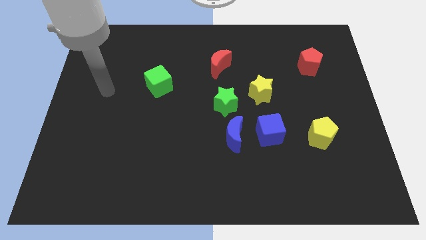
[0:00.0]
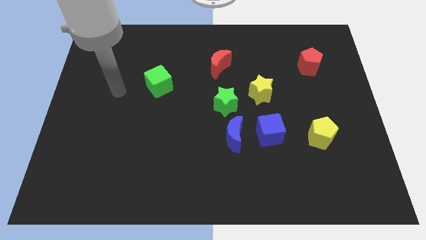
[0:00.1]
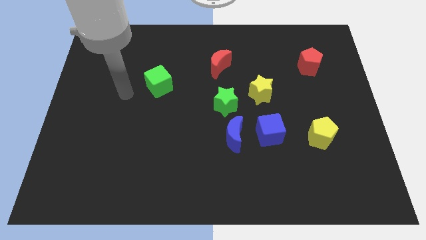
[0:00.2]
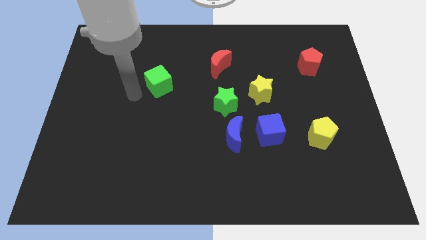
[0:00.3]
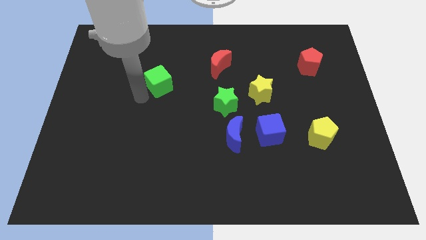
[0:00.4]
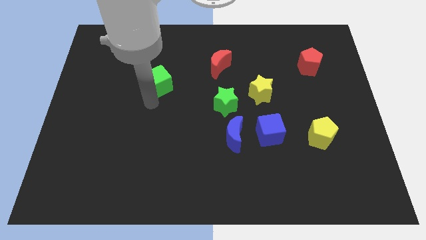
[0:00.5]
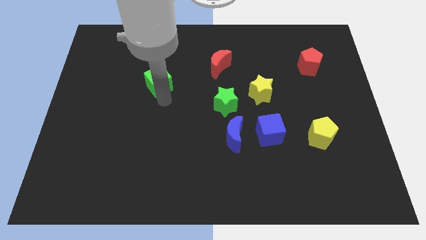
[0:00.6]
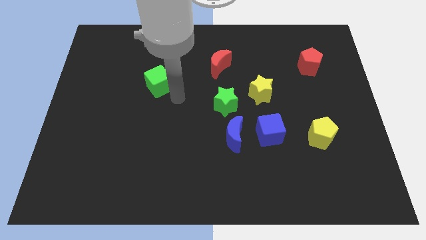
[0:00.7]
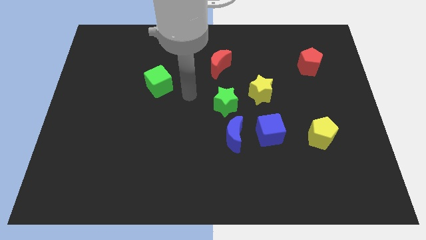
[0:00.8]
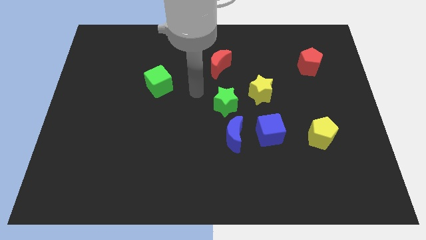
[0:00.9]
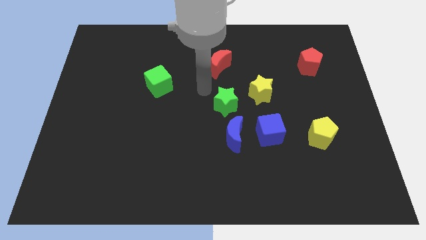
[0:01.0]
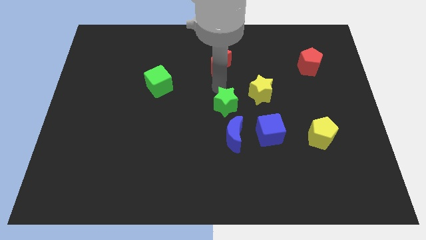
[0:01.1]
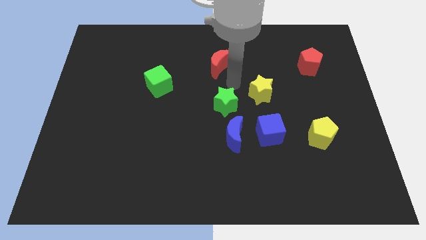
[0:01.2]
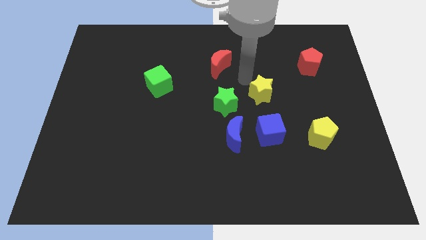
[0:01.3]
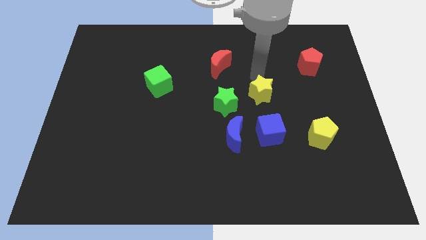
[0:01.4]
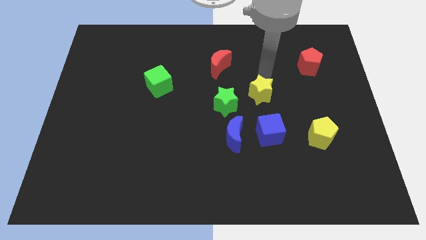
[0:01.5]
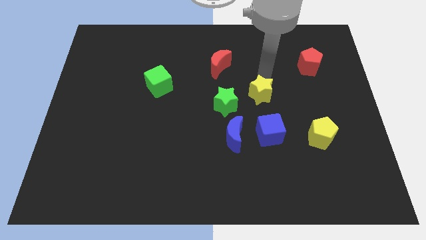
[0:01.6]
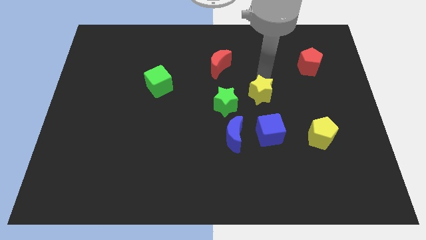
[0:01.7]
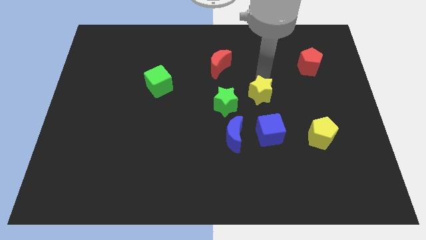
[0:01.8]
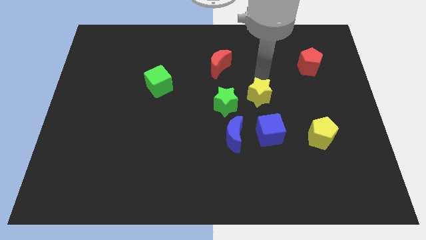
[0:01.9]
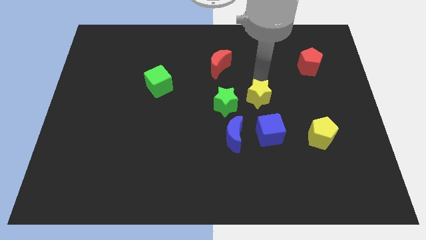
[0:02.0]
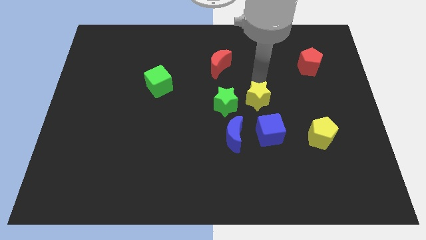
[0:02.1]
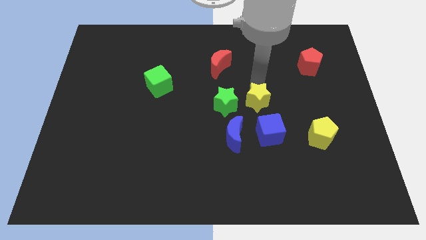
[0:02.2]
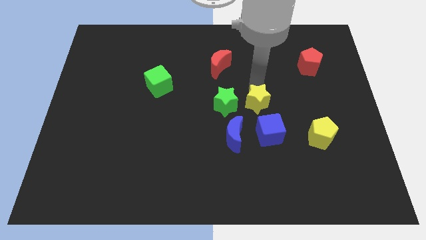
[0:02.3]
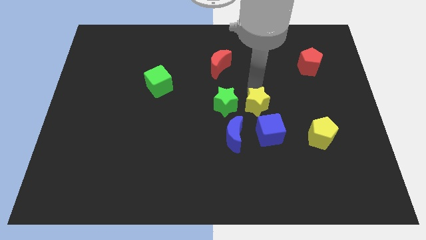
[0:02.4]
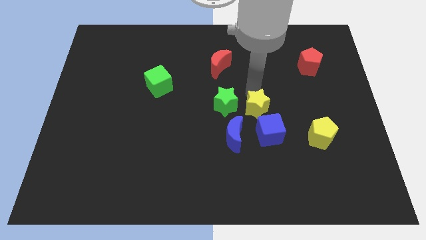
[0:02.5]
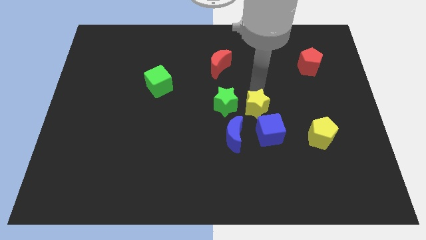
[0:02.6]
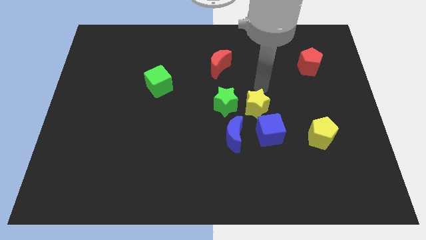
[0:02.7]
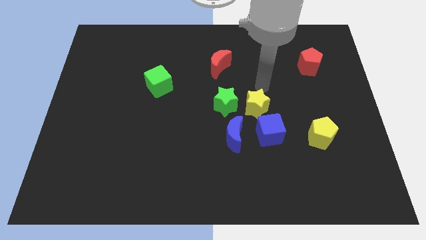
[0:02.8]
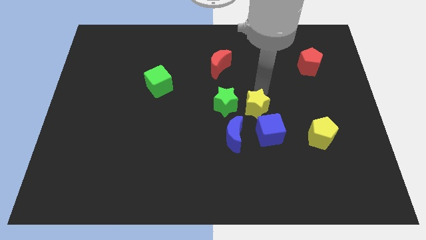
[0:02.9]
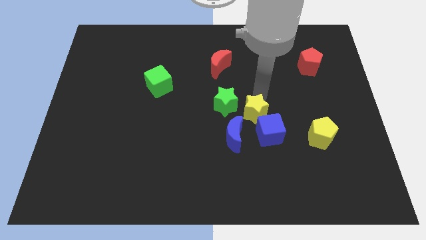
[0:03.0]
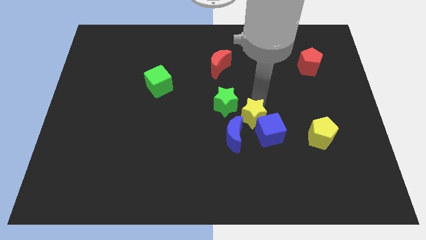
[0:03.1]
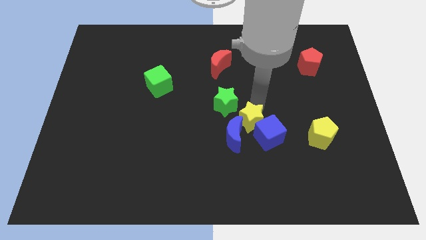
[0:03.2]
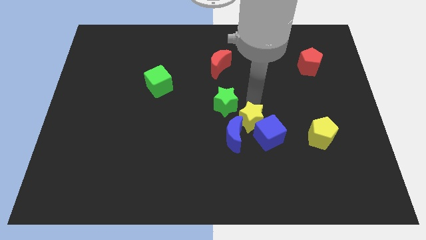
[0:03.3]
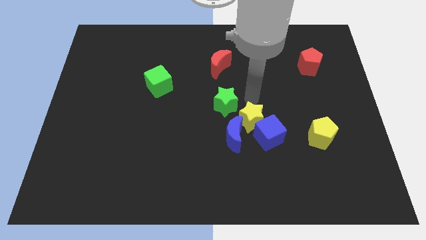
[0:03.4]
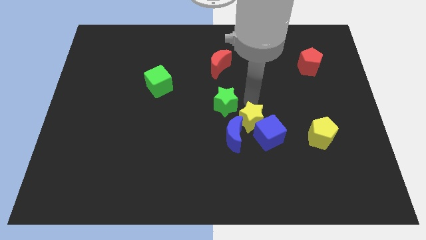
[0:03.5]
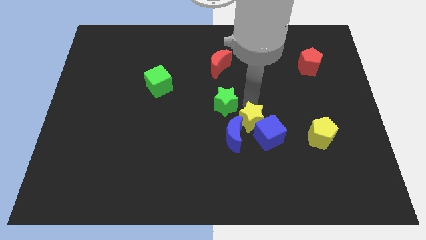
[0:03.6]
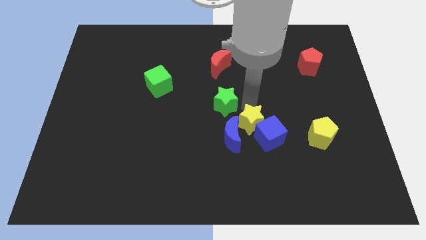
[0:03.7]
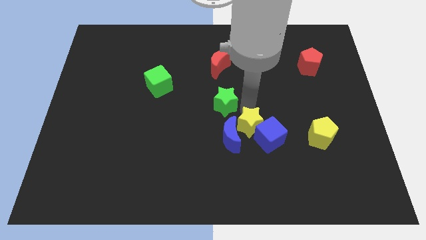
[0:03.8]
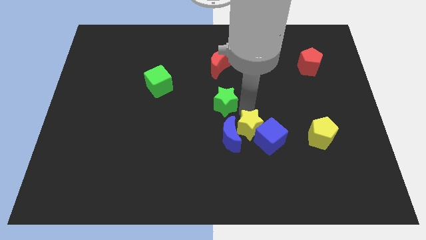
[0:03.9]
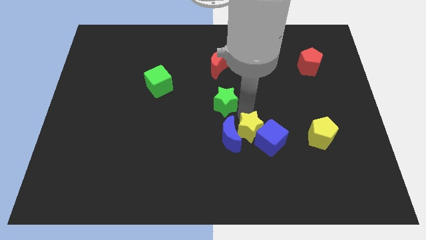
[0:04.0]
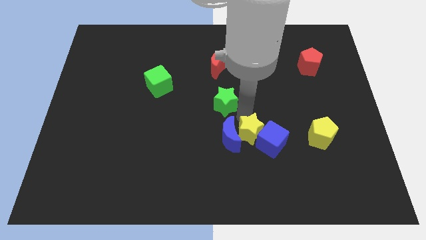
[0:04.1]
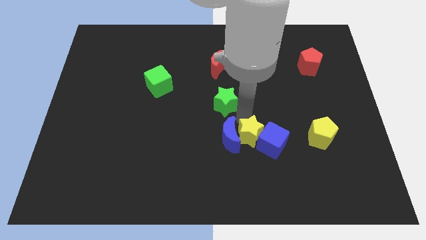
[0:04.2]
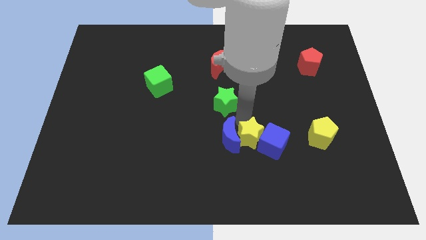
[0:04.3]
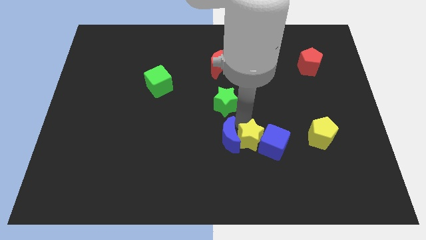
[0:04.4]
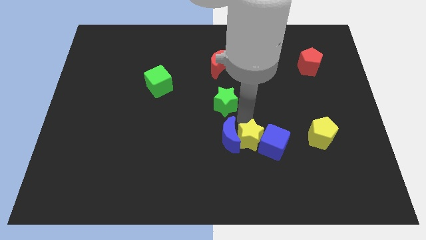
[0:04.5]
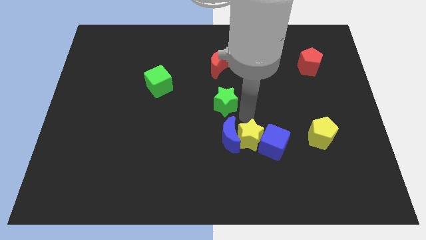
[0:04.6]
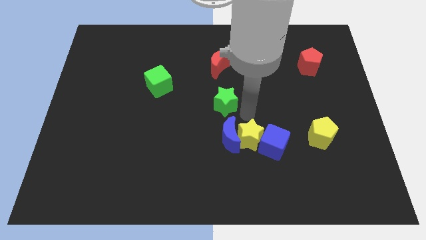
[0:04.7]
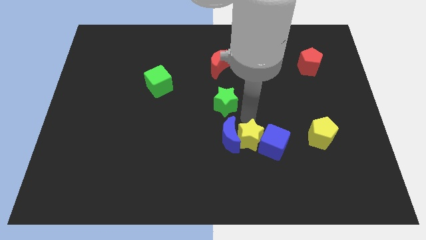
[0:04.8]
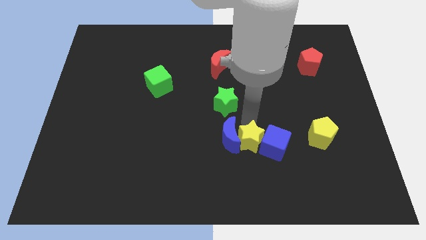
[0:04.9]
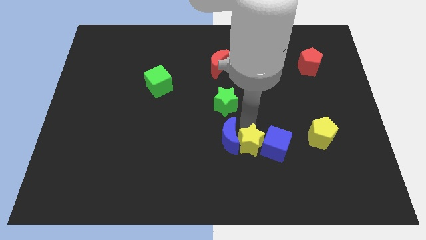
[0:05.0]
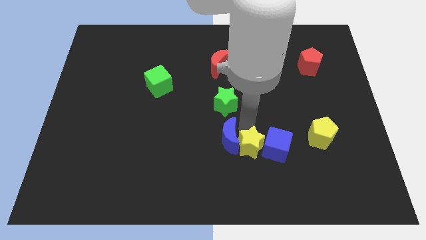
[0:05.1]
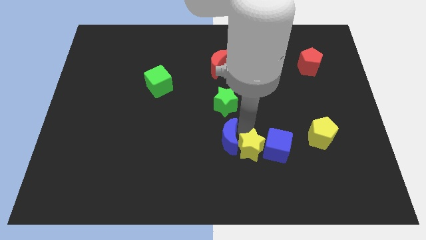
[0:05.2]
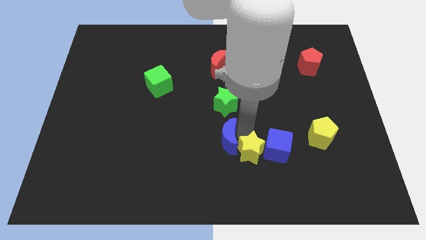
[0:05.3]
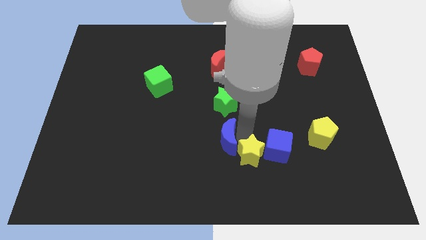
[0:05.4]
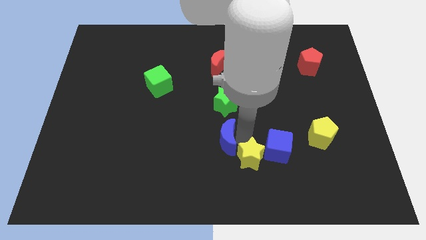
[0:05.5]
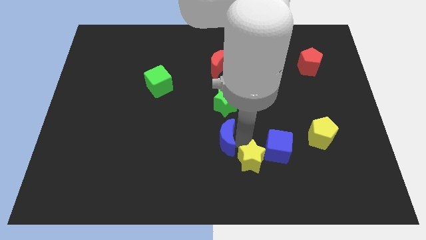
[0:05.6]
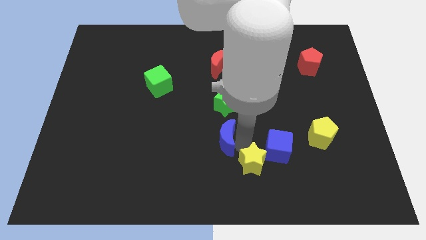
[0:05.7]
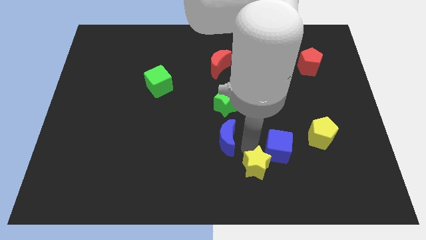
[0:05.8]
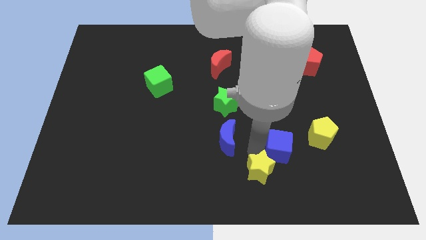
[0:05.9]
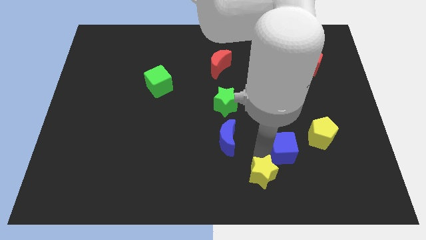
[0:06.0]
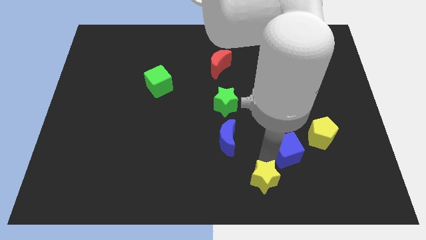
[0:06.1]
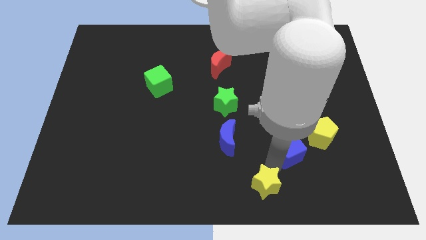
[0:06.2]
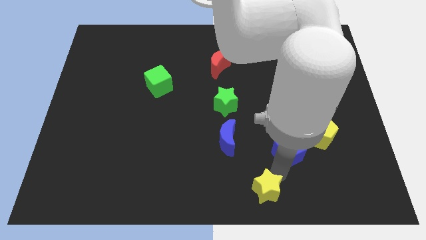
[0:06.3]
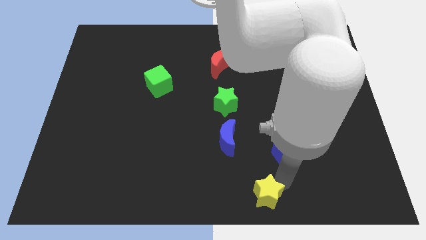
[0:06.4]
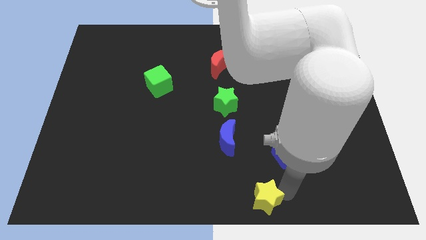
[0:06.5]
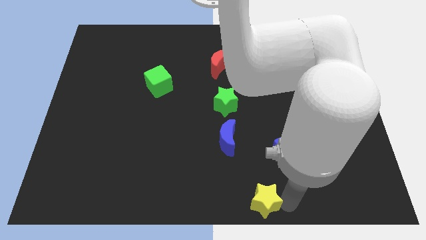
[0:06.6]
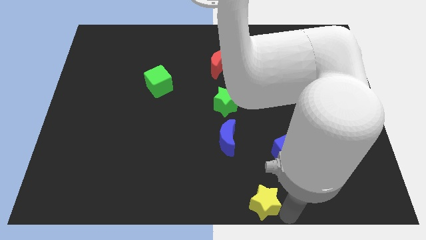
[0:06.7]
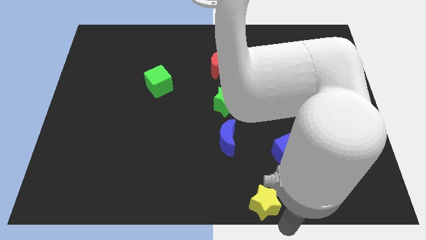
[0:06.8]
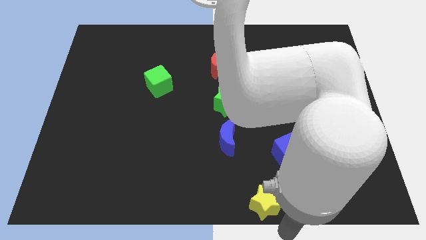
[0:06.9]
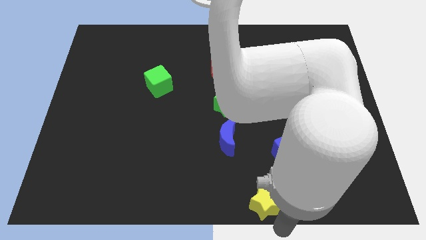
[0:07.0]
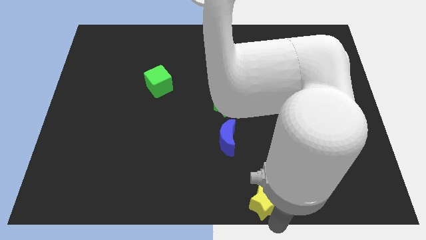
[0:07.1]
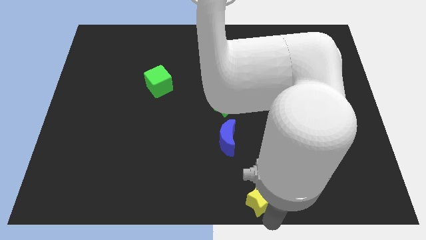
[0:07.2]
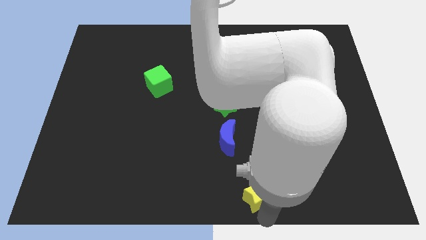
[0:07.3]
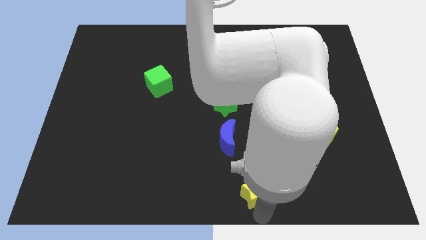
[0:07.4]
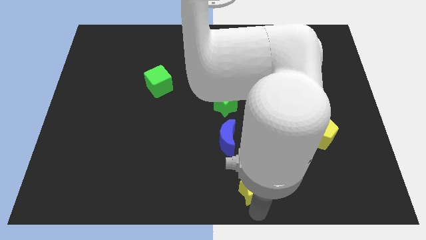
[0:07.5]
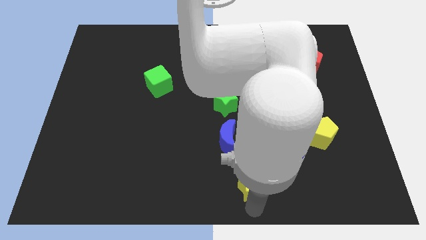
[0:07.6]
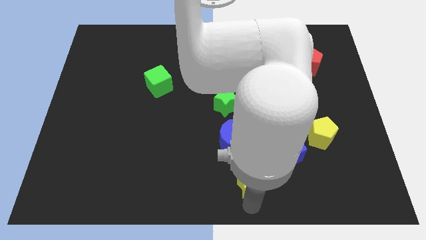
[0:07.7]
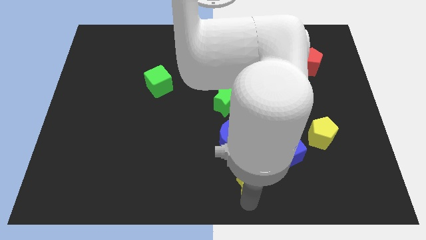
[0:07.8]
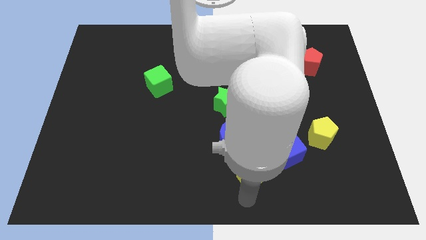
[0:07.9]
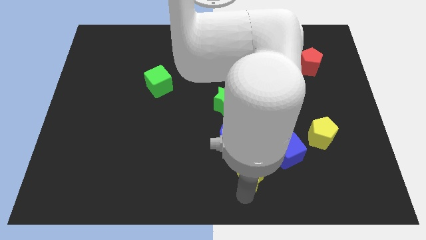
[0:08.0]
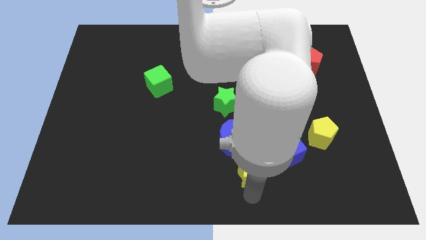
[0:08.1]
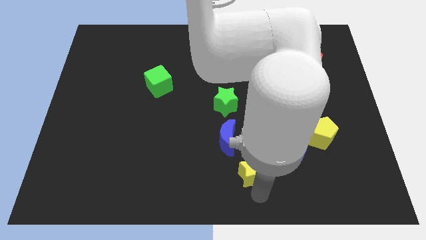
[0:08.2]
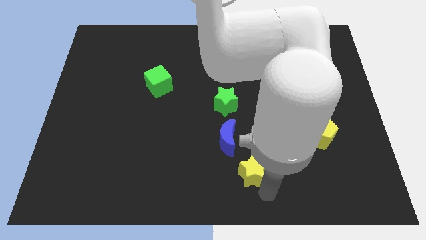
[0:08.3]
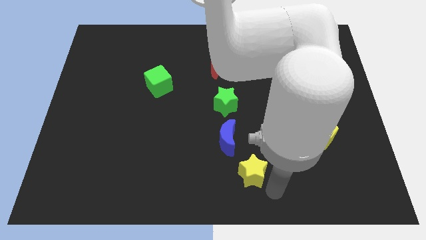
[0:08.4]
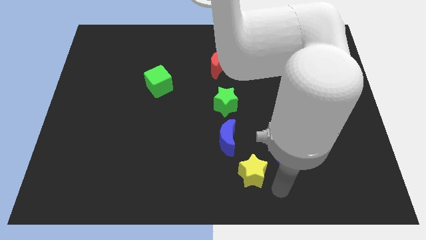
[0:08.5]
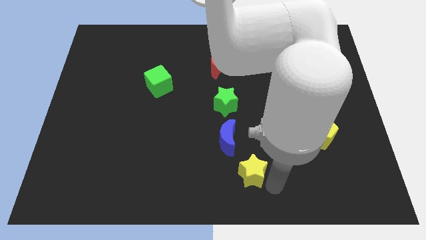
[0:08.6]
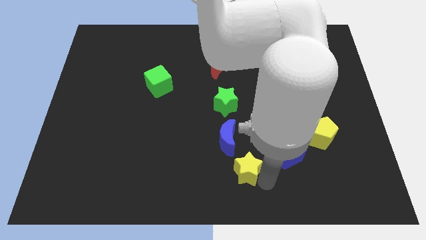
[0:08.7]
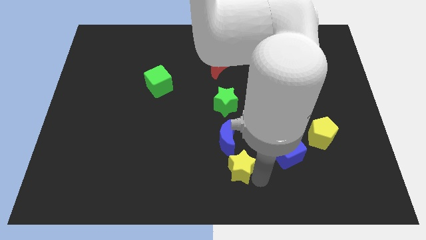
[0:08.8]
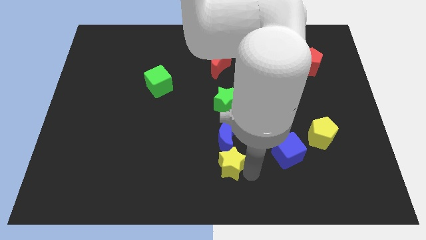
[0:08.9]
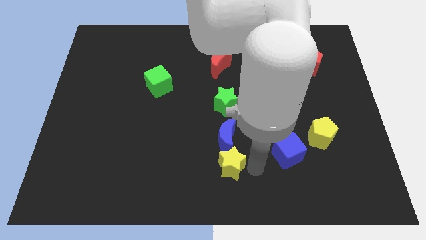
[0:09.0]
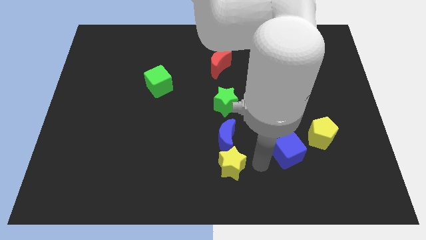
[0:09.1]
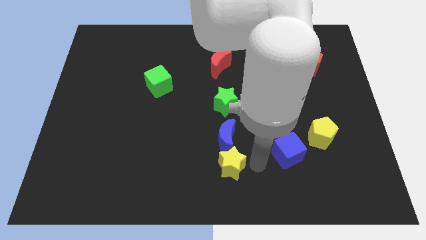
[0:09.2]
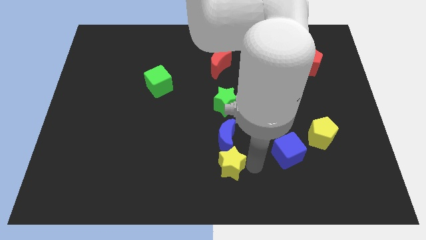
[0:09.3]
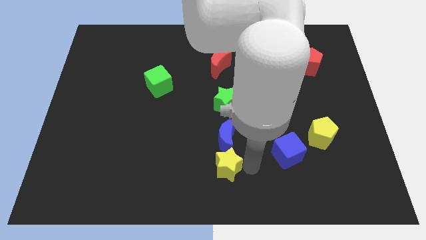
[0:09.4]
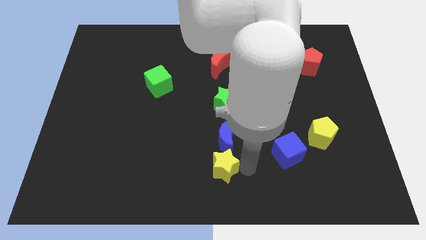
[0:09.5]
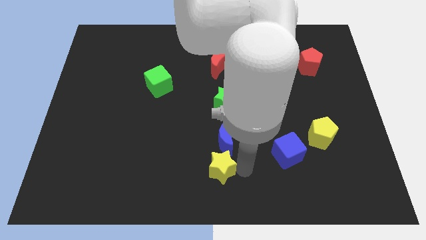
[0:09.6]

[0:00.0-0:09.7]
push the yellow star downwards and to the left
